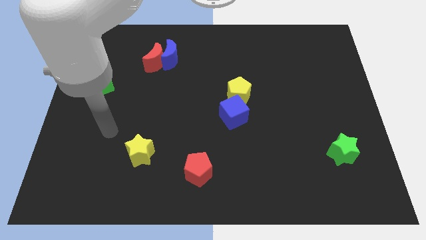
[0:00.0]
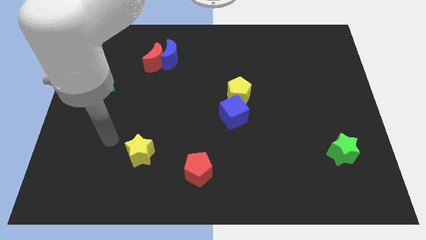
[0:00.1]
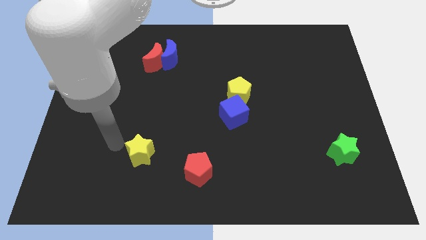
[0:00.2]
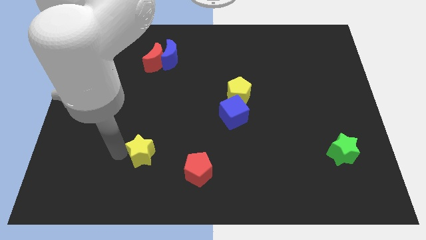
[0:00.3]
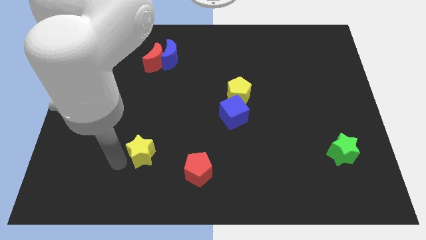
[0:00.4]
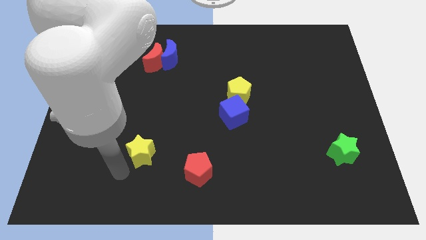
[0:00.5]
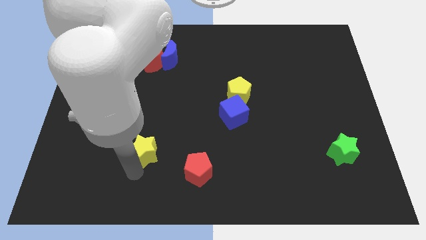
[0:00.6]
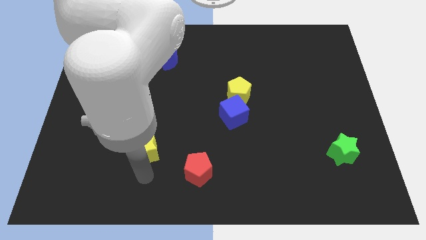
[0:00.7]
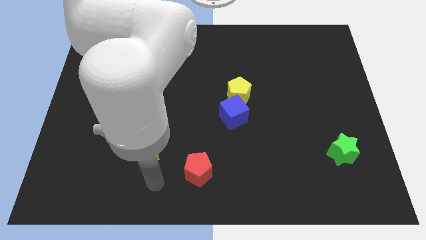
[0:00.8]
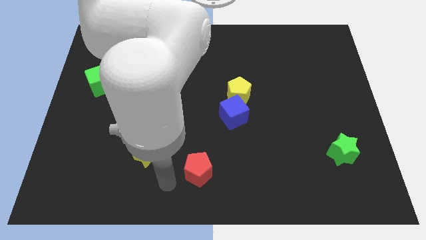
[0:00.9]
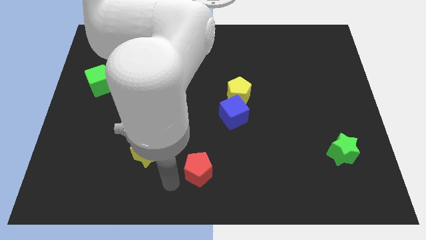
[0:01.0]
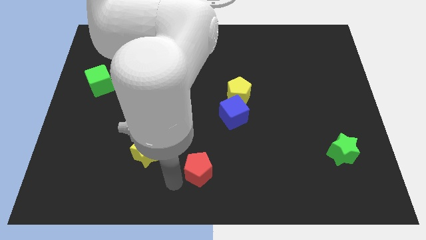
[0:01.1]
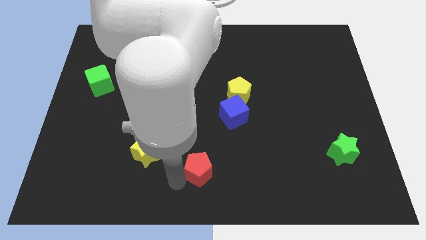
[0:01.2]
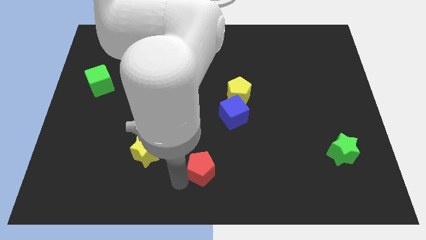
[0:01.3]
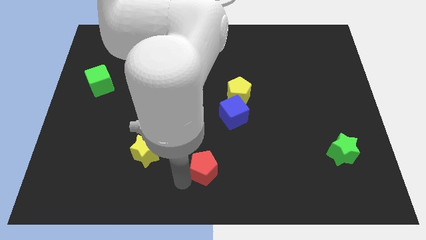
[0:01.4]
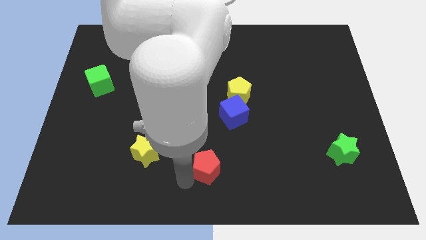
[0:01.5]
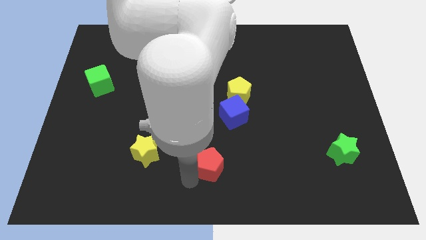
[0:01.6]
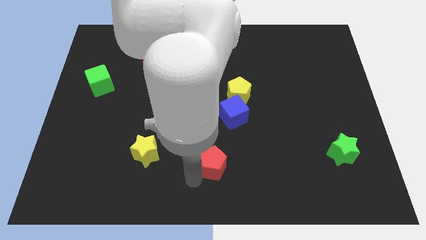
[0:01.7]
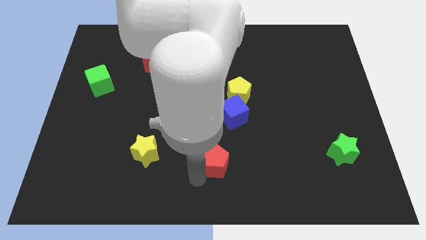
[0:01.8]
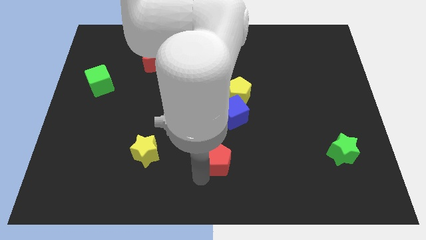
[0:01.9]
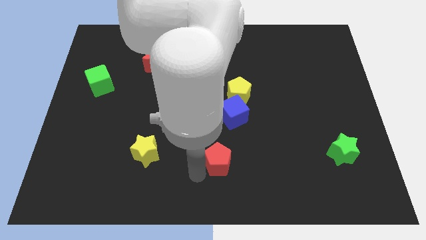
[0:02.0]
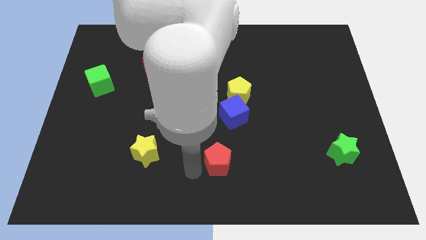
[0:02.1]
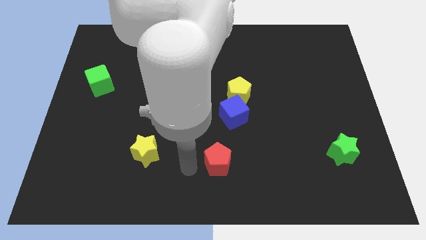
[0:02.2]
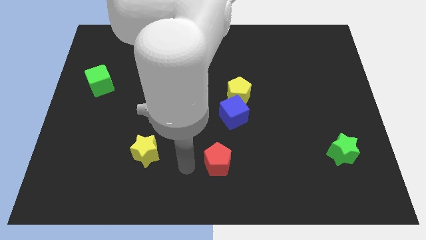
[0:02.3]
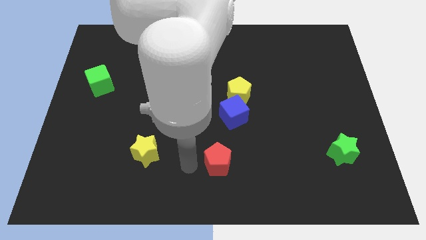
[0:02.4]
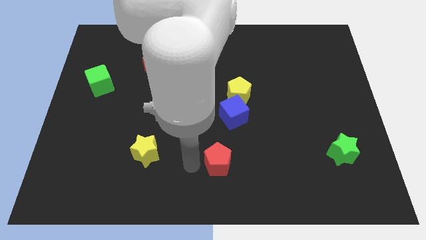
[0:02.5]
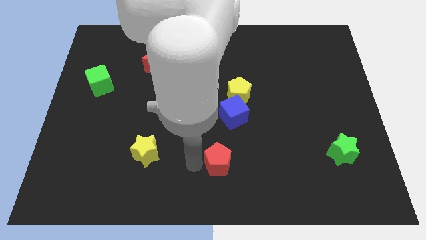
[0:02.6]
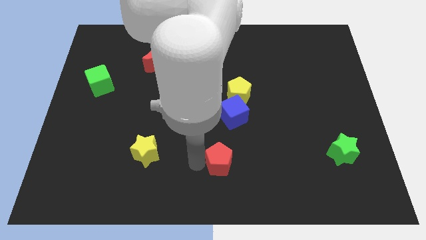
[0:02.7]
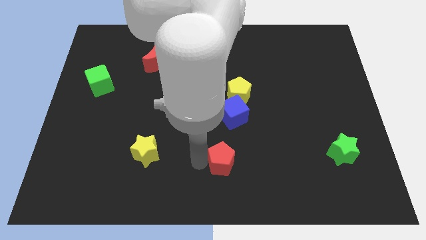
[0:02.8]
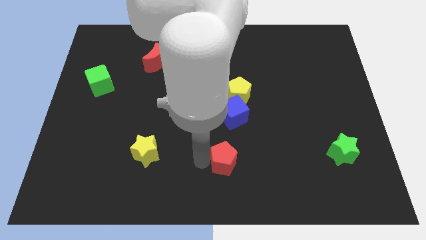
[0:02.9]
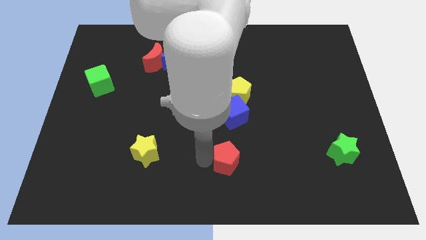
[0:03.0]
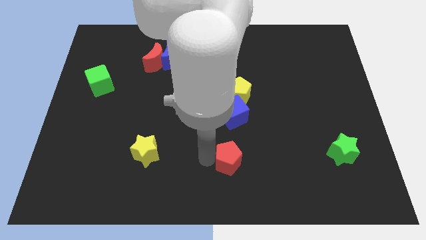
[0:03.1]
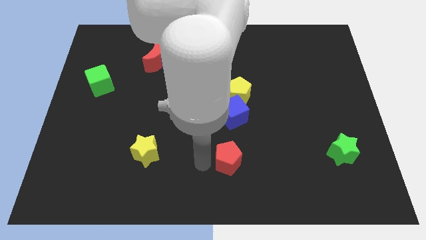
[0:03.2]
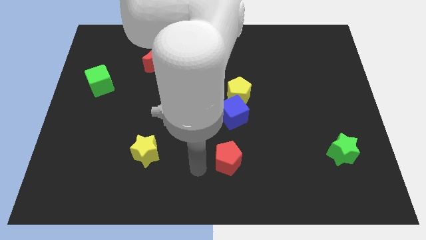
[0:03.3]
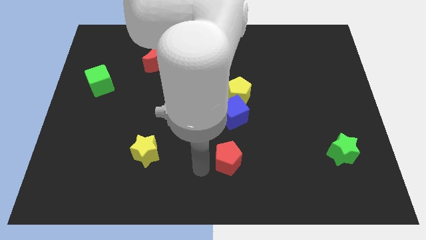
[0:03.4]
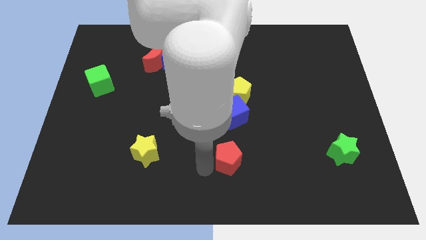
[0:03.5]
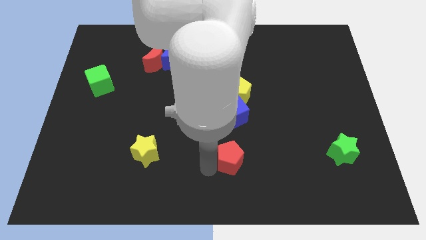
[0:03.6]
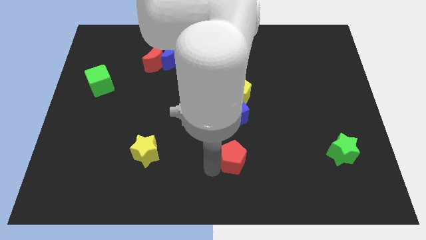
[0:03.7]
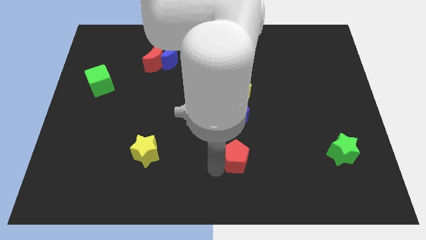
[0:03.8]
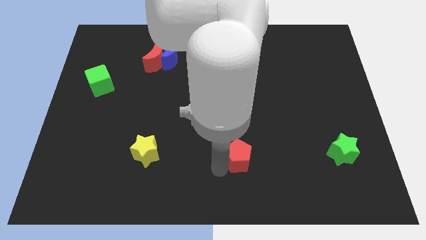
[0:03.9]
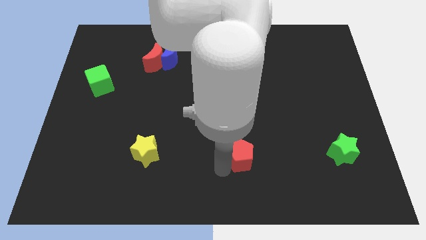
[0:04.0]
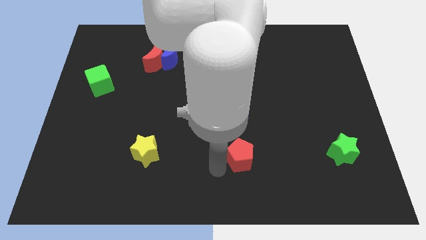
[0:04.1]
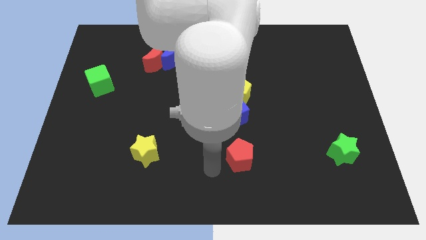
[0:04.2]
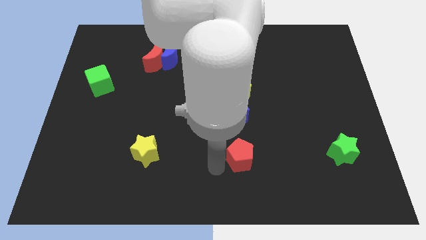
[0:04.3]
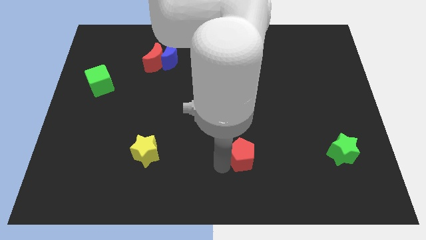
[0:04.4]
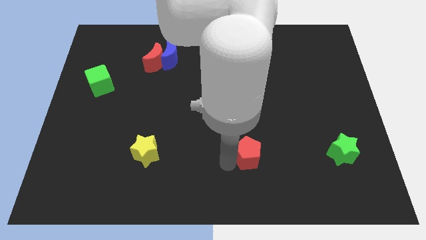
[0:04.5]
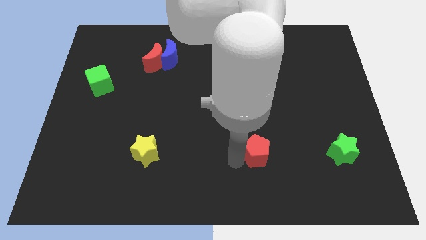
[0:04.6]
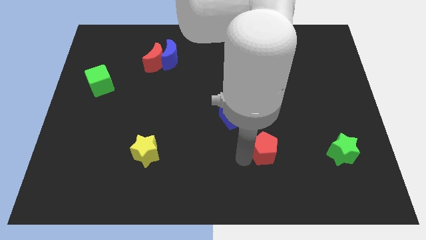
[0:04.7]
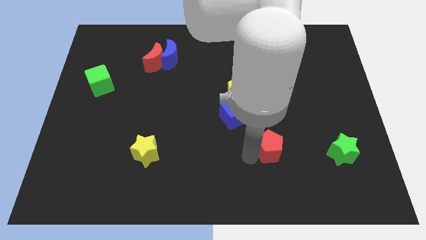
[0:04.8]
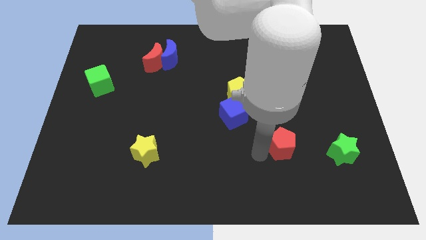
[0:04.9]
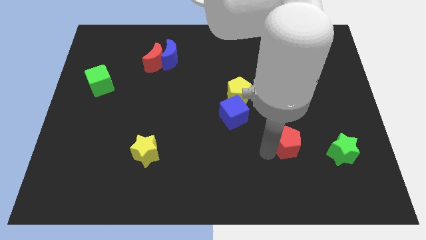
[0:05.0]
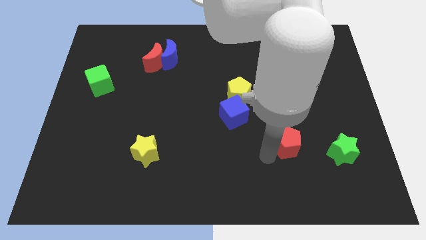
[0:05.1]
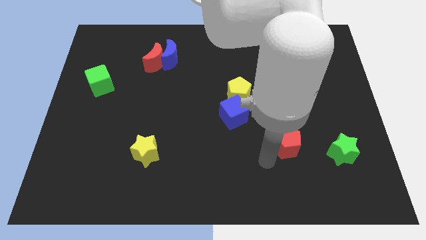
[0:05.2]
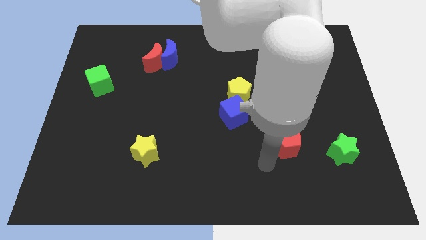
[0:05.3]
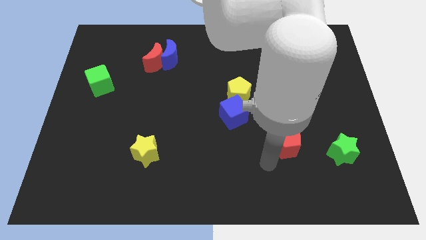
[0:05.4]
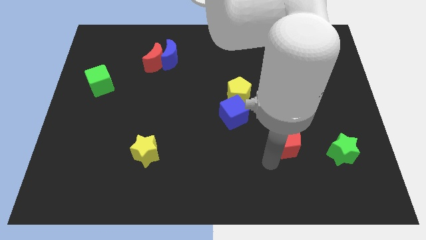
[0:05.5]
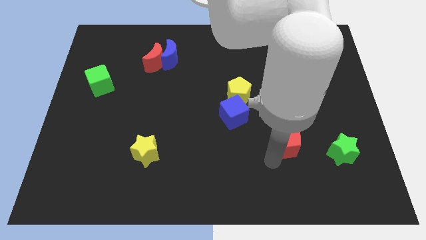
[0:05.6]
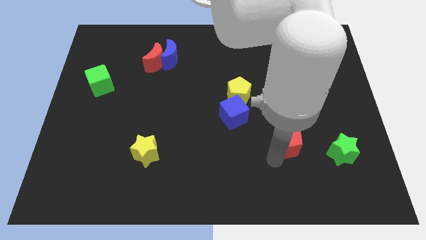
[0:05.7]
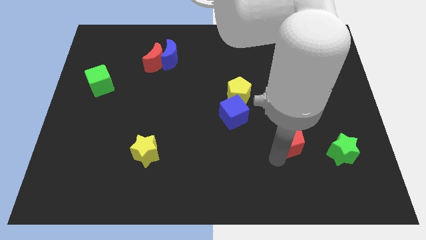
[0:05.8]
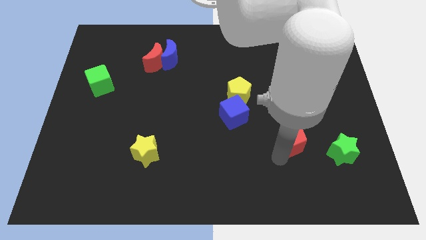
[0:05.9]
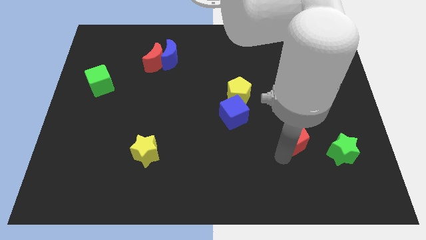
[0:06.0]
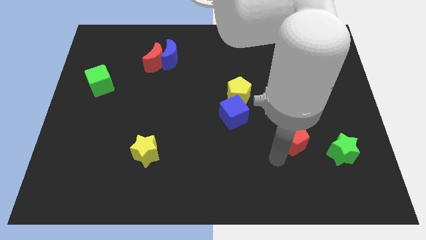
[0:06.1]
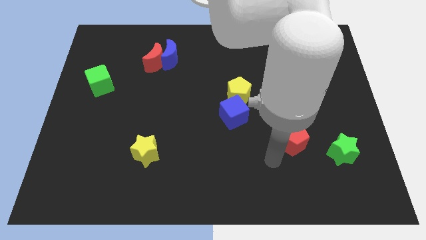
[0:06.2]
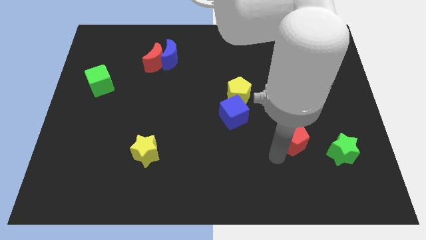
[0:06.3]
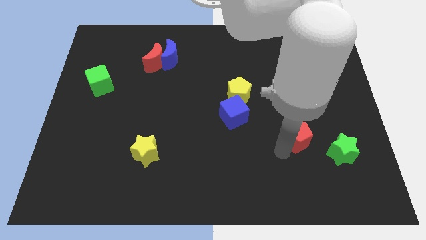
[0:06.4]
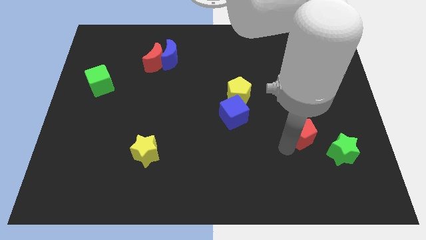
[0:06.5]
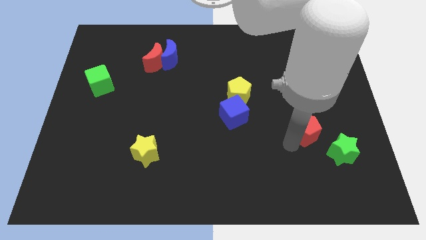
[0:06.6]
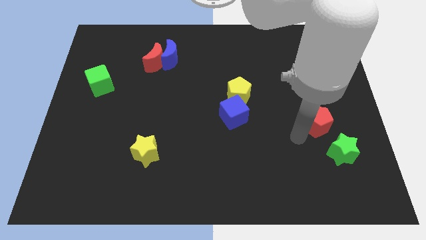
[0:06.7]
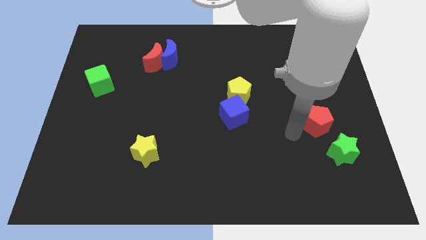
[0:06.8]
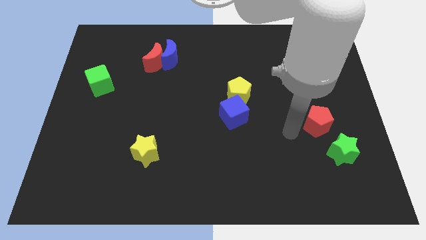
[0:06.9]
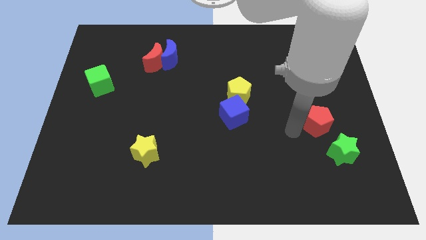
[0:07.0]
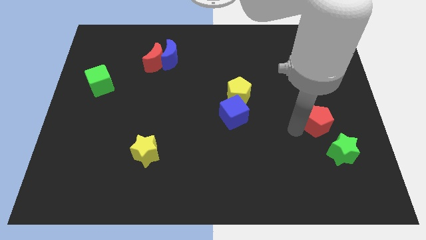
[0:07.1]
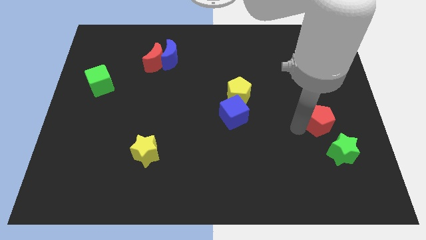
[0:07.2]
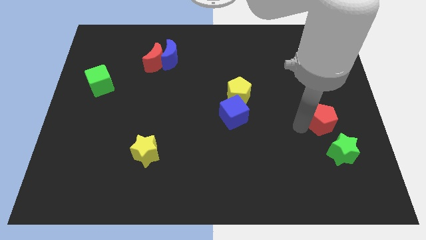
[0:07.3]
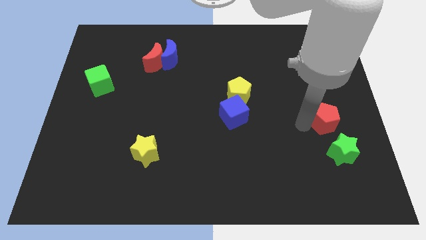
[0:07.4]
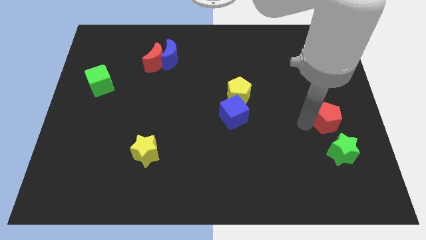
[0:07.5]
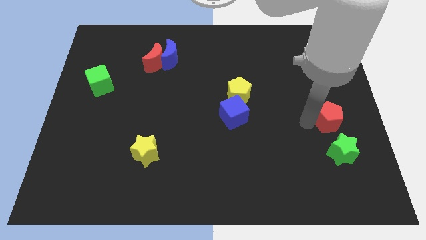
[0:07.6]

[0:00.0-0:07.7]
push the red pentagon to the center right
